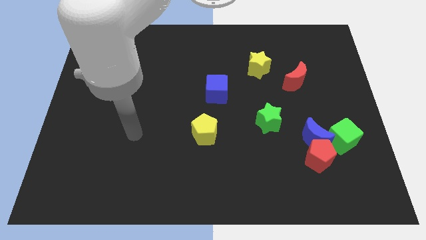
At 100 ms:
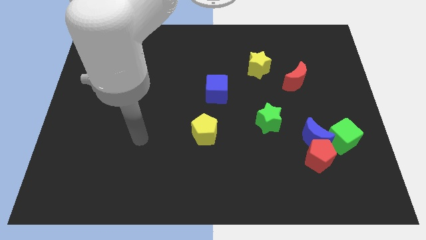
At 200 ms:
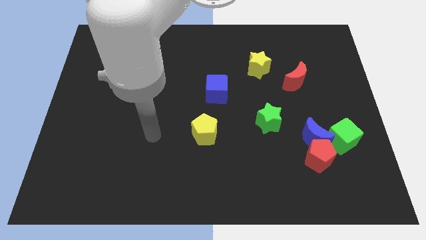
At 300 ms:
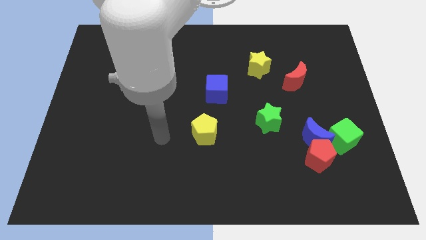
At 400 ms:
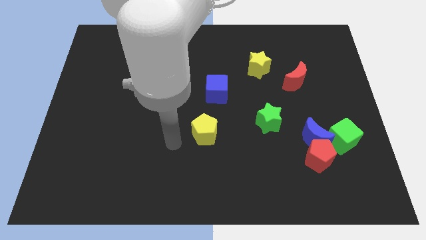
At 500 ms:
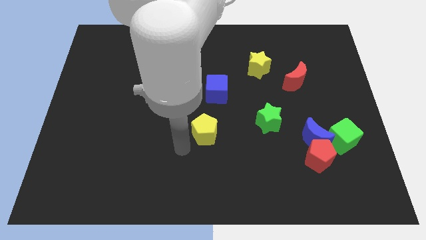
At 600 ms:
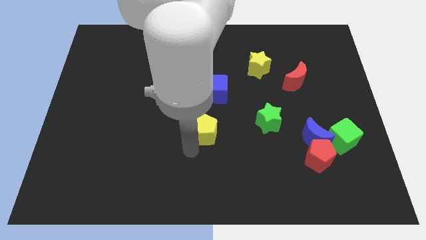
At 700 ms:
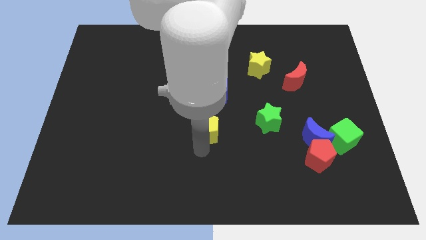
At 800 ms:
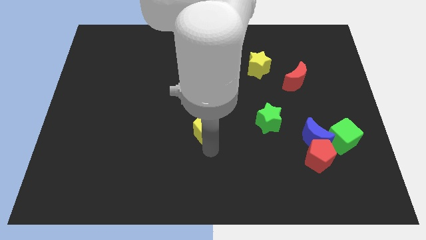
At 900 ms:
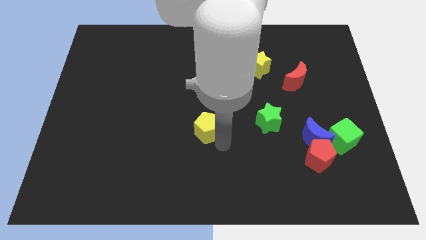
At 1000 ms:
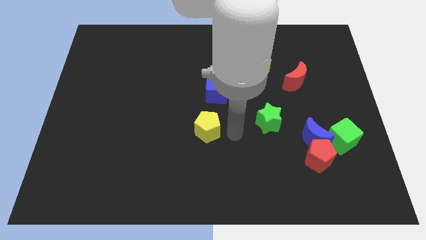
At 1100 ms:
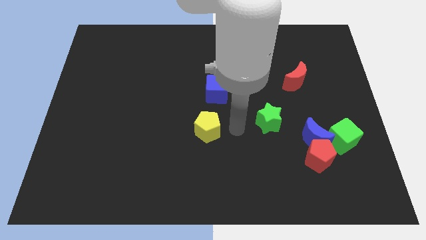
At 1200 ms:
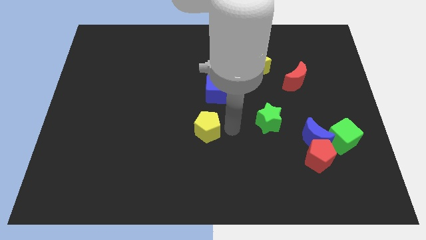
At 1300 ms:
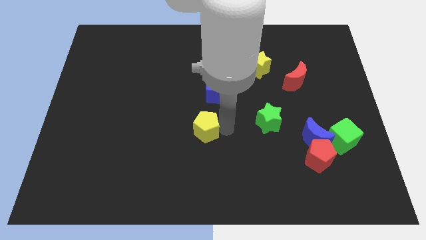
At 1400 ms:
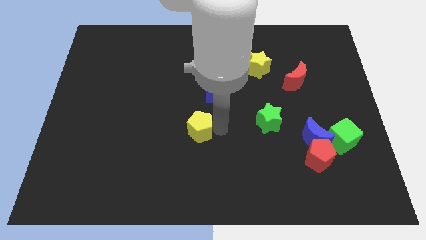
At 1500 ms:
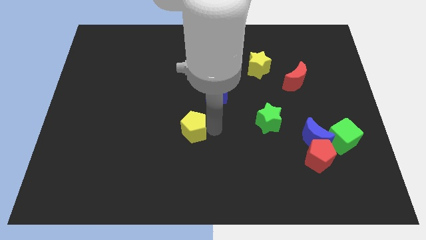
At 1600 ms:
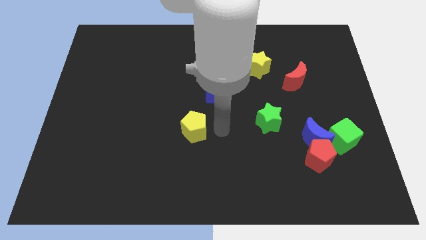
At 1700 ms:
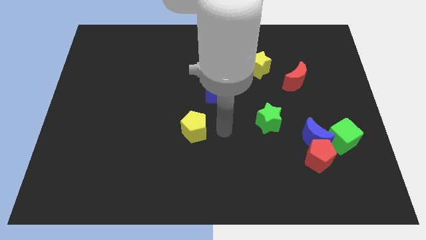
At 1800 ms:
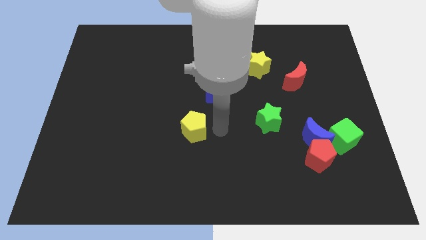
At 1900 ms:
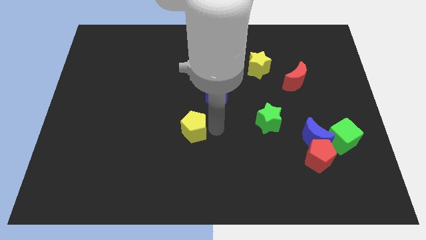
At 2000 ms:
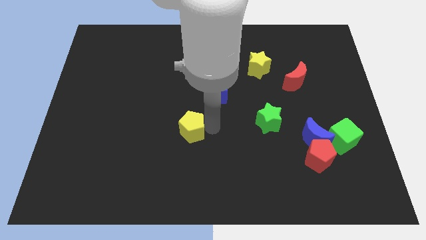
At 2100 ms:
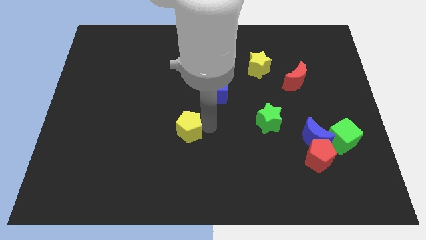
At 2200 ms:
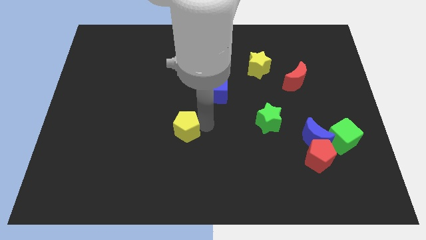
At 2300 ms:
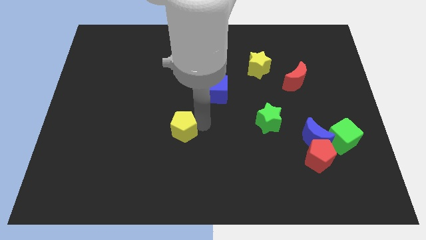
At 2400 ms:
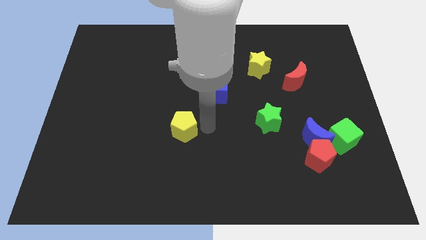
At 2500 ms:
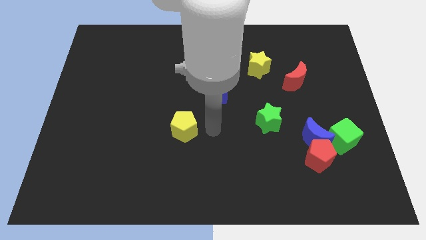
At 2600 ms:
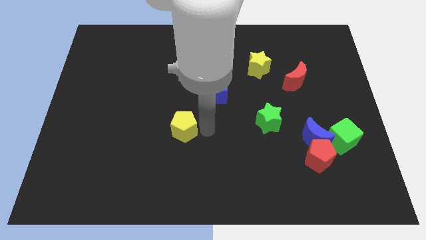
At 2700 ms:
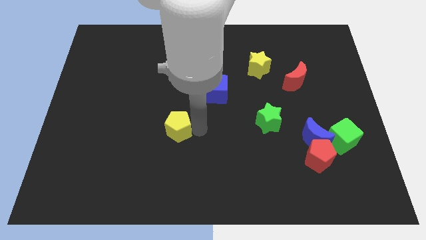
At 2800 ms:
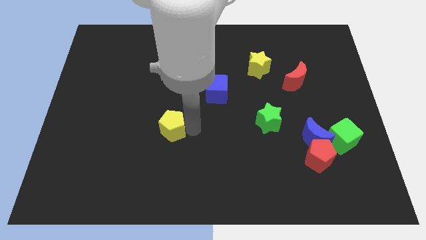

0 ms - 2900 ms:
move the yellow pentagon slightly to the left

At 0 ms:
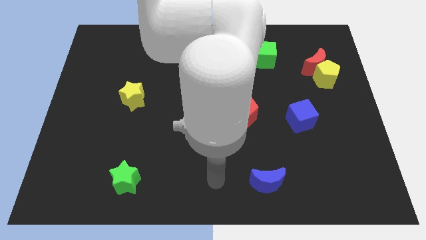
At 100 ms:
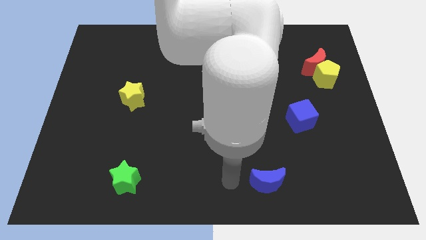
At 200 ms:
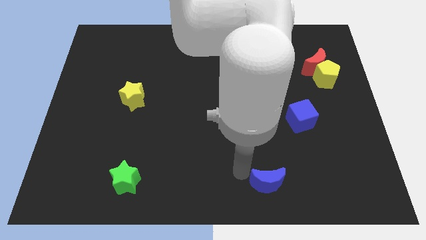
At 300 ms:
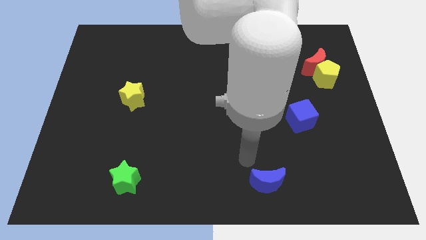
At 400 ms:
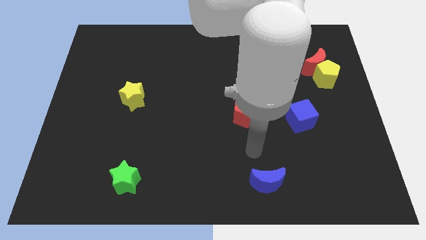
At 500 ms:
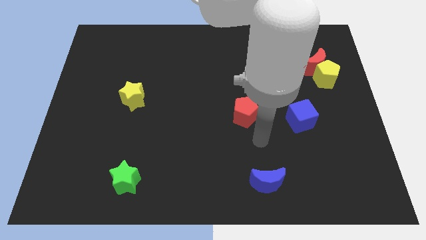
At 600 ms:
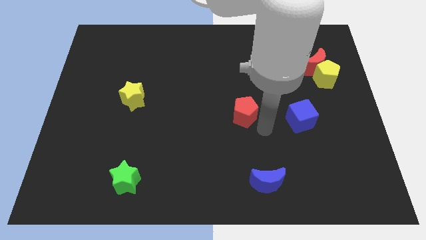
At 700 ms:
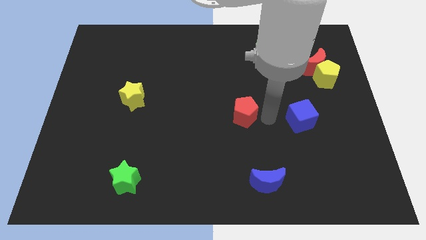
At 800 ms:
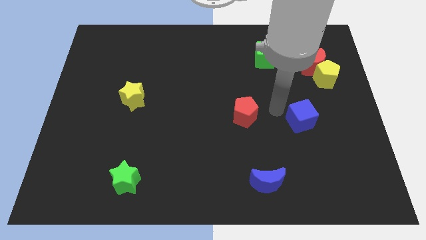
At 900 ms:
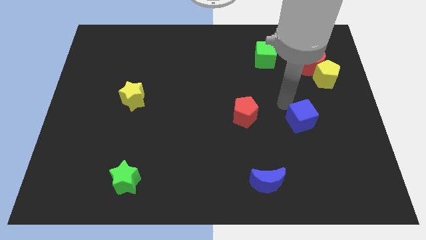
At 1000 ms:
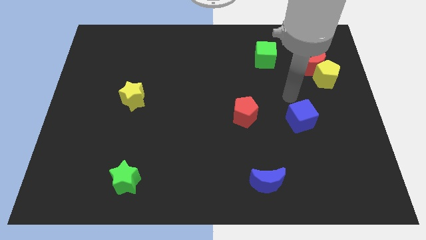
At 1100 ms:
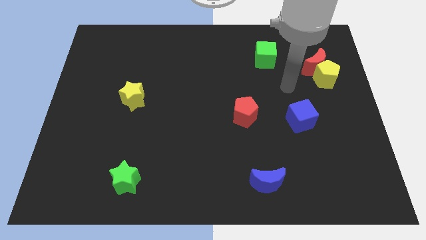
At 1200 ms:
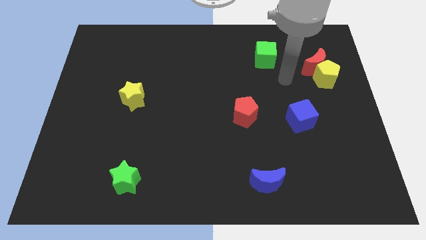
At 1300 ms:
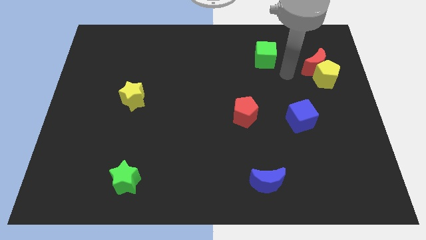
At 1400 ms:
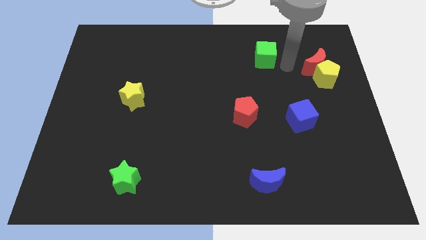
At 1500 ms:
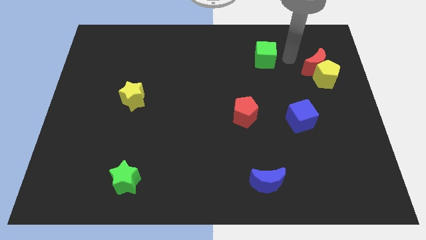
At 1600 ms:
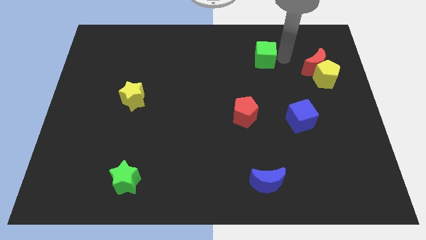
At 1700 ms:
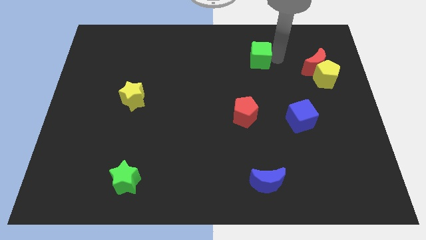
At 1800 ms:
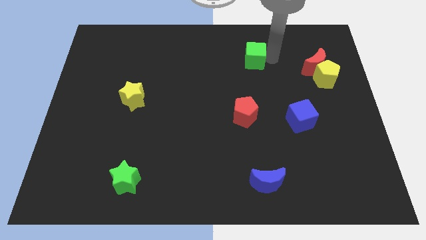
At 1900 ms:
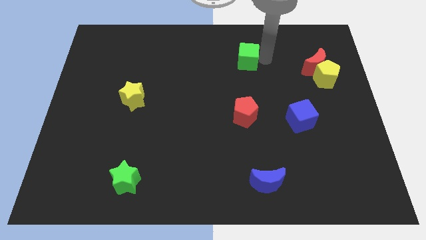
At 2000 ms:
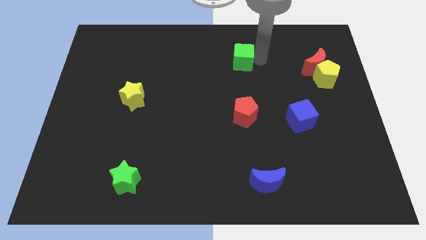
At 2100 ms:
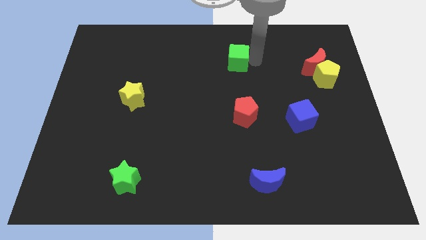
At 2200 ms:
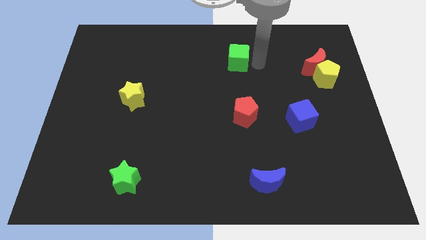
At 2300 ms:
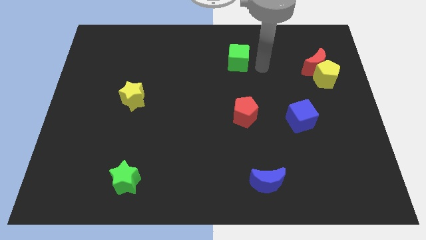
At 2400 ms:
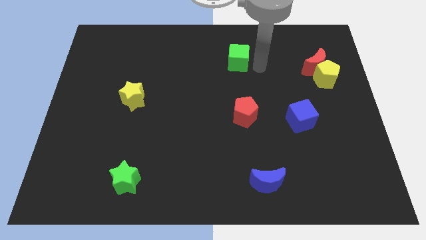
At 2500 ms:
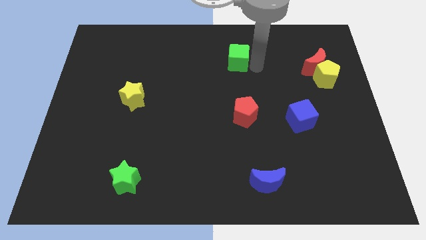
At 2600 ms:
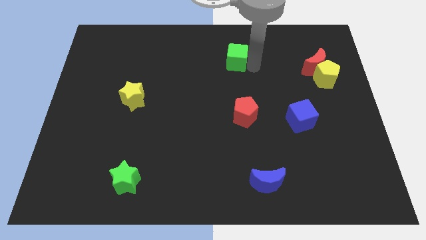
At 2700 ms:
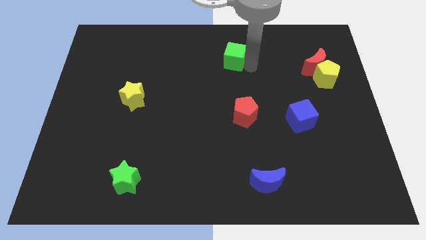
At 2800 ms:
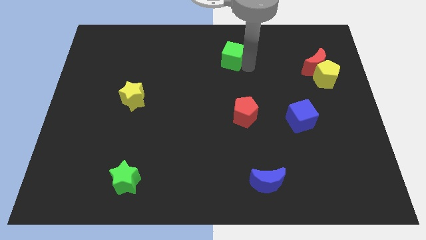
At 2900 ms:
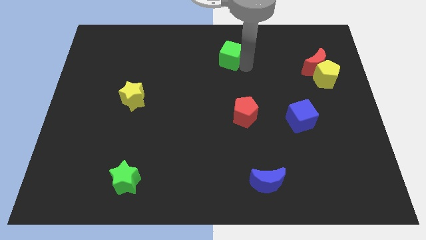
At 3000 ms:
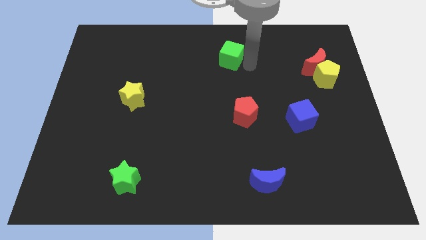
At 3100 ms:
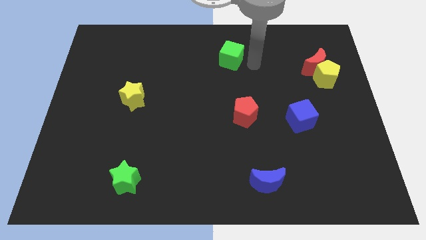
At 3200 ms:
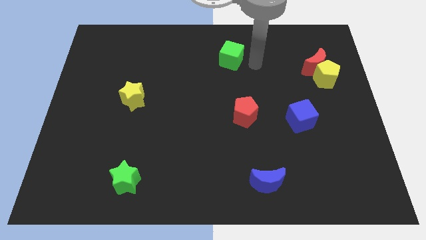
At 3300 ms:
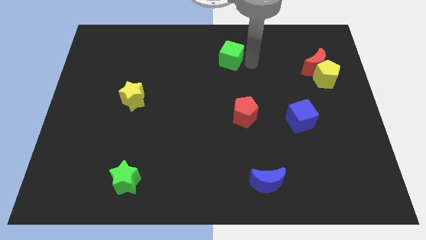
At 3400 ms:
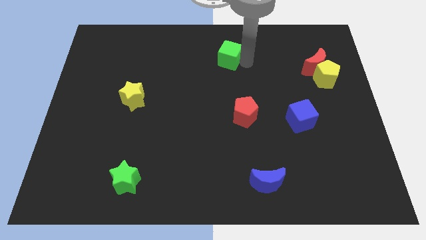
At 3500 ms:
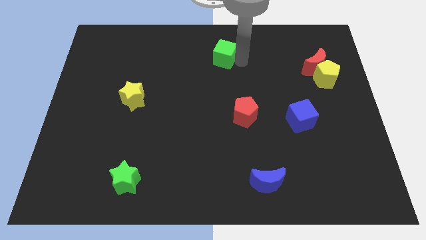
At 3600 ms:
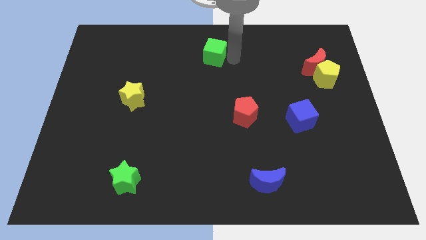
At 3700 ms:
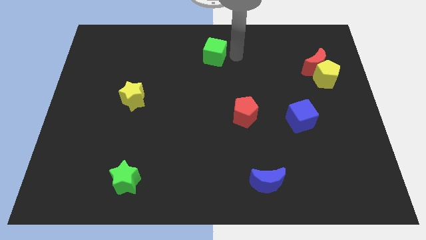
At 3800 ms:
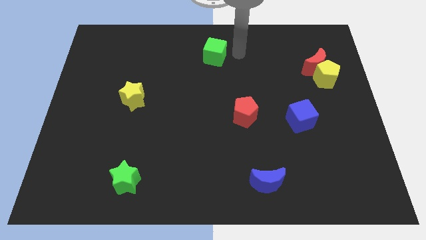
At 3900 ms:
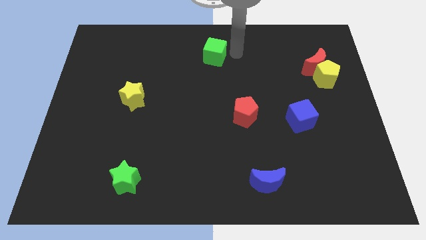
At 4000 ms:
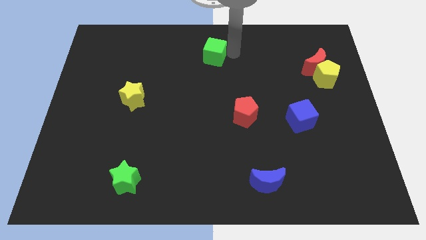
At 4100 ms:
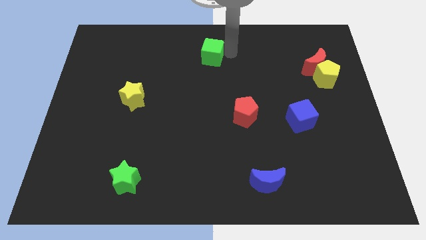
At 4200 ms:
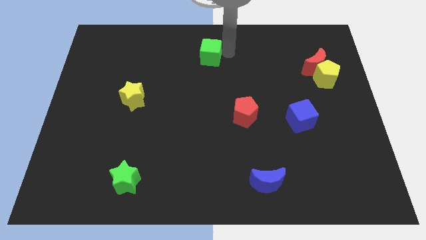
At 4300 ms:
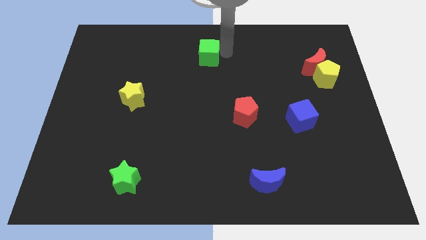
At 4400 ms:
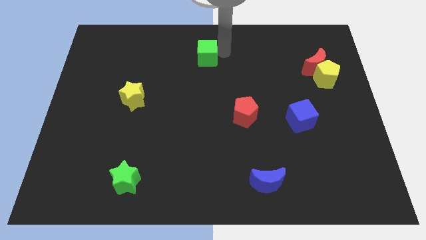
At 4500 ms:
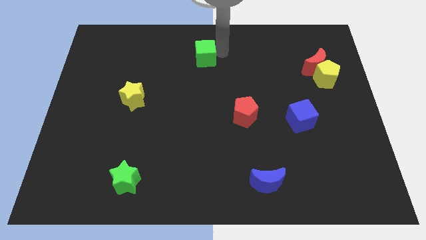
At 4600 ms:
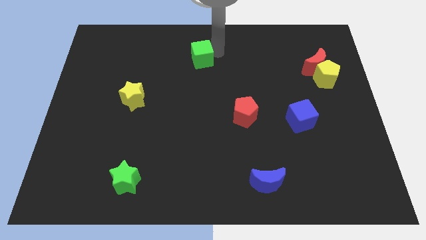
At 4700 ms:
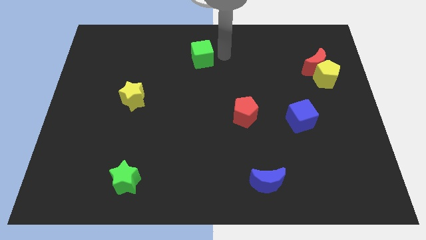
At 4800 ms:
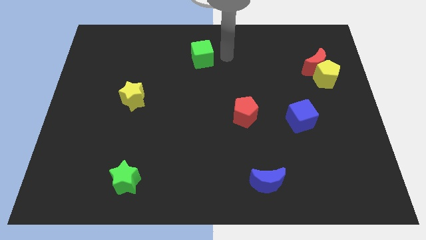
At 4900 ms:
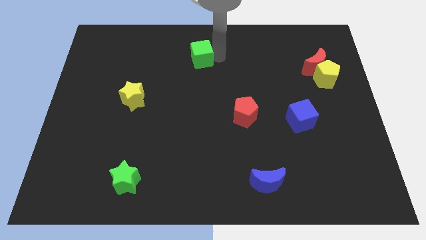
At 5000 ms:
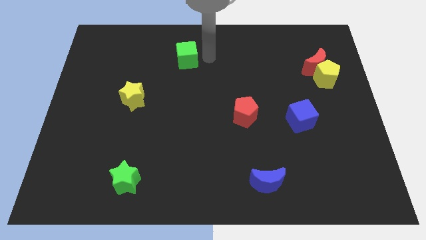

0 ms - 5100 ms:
move the green cube to the left
